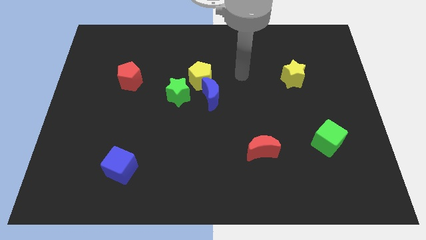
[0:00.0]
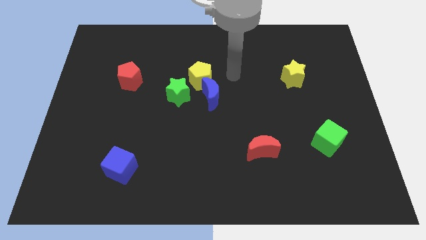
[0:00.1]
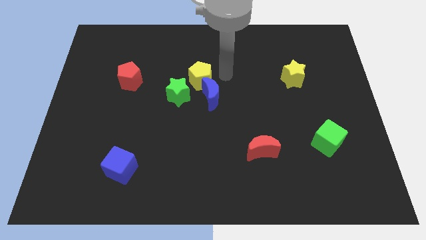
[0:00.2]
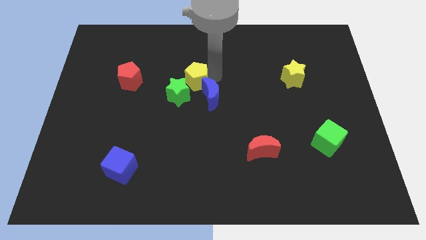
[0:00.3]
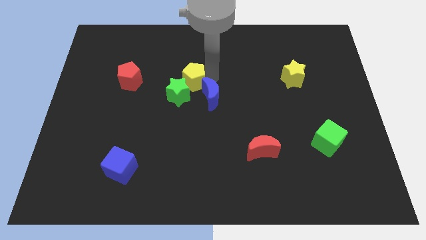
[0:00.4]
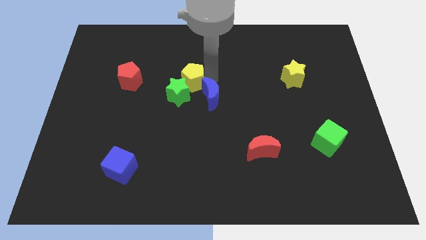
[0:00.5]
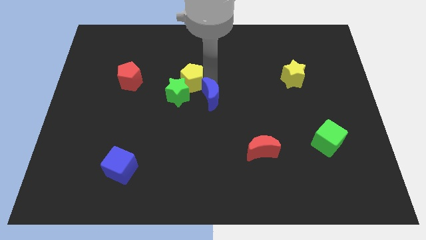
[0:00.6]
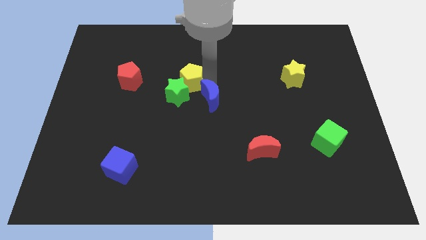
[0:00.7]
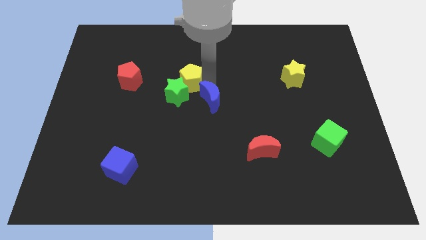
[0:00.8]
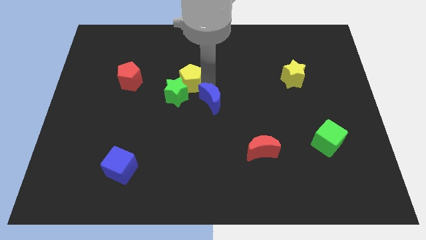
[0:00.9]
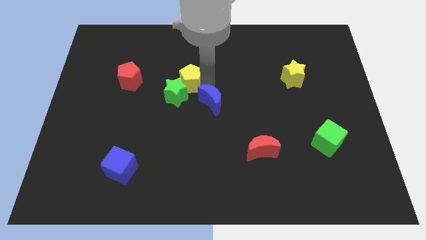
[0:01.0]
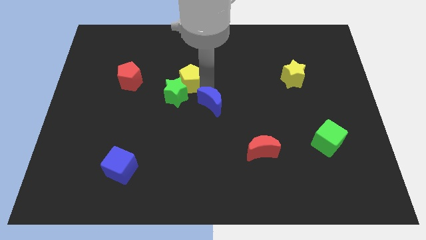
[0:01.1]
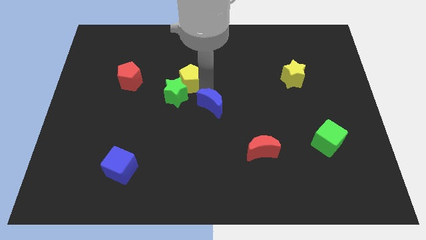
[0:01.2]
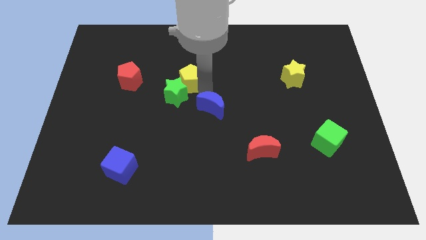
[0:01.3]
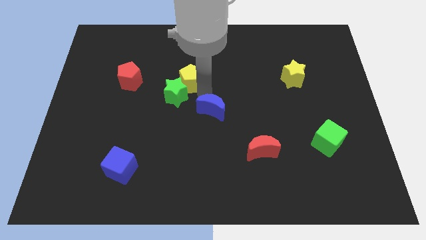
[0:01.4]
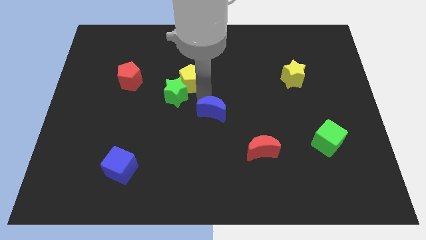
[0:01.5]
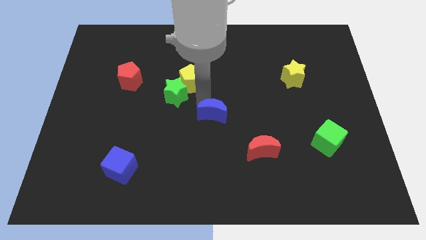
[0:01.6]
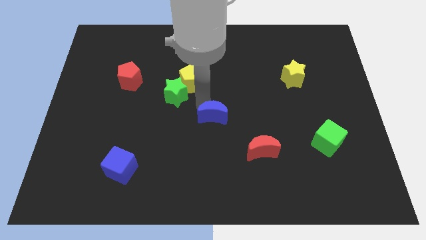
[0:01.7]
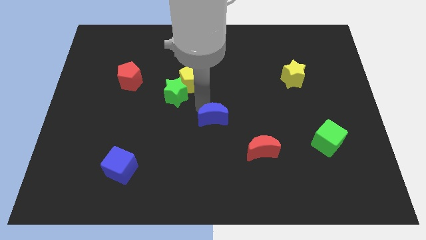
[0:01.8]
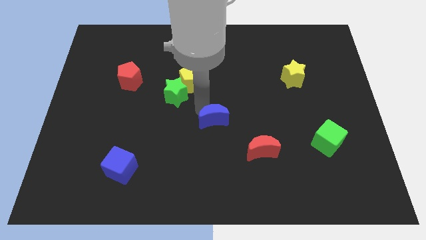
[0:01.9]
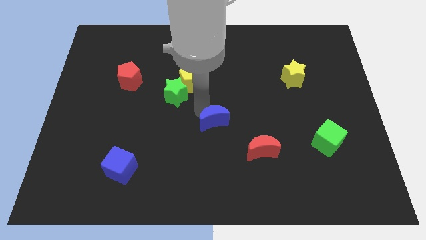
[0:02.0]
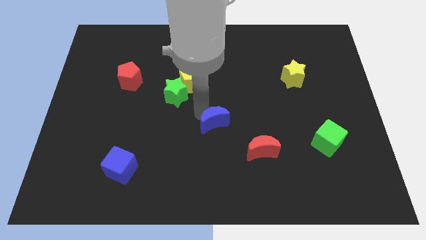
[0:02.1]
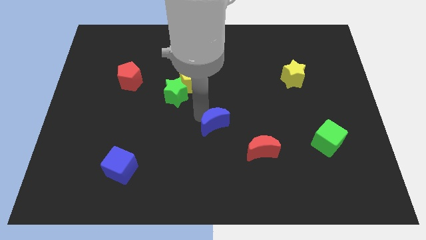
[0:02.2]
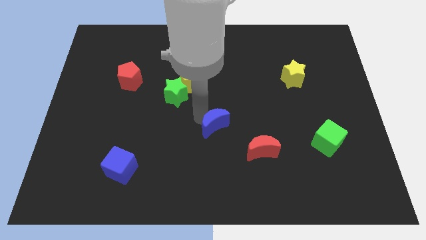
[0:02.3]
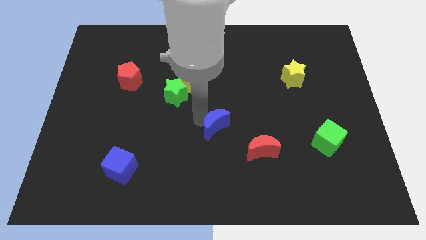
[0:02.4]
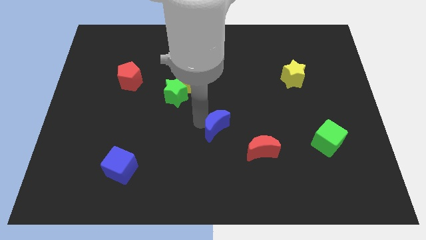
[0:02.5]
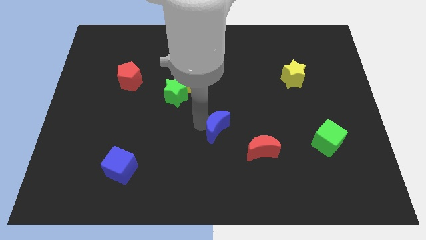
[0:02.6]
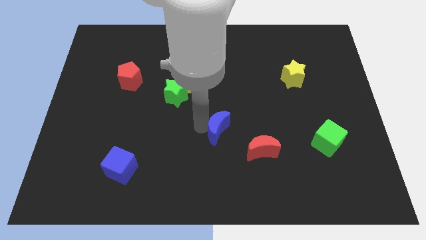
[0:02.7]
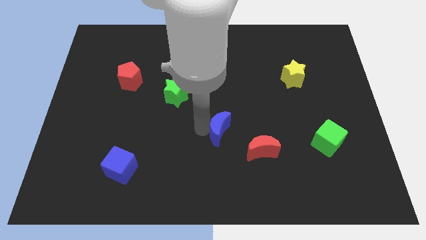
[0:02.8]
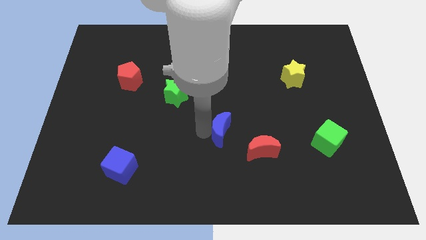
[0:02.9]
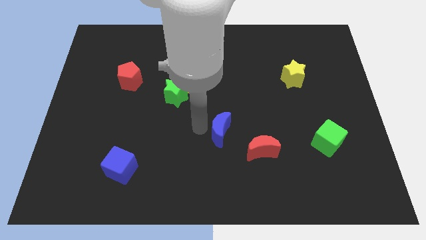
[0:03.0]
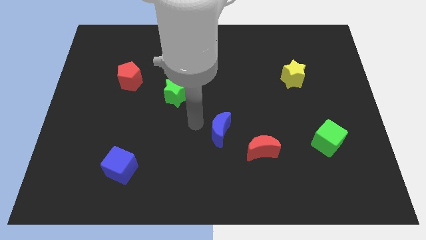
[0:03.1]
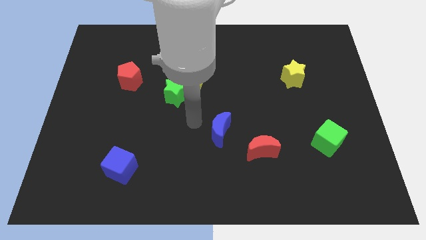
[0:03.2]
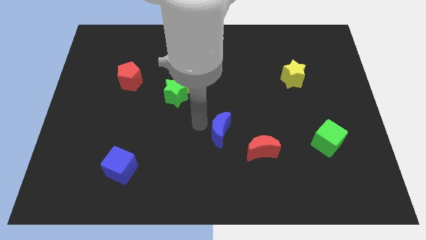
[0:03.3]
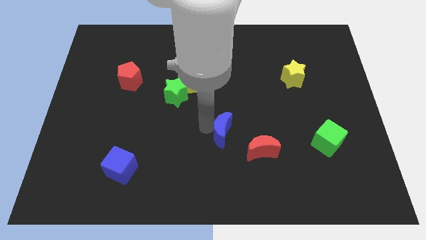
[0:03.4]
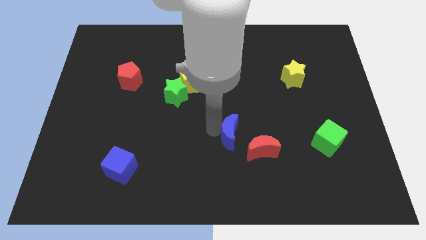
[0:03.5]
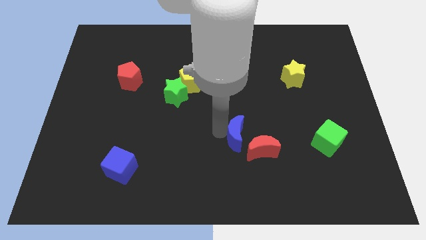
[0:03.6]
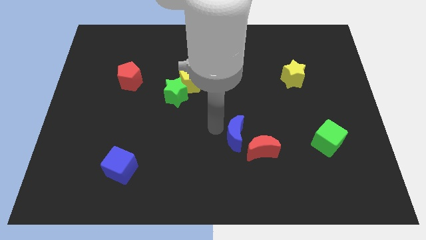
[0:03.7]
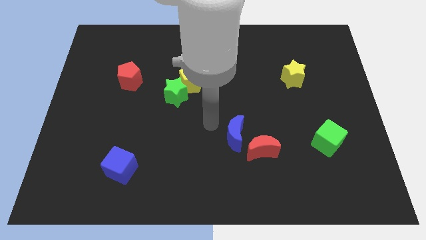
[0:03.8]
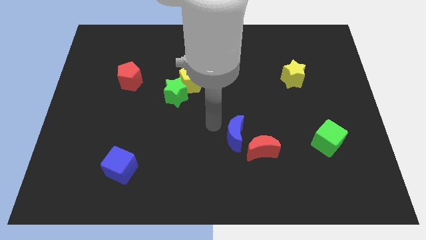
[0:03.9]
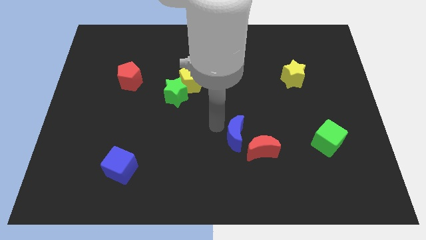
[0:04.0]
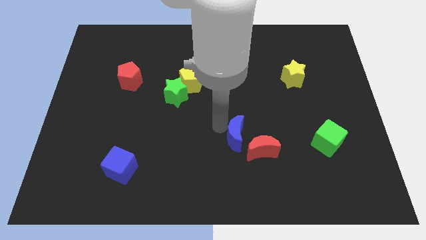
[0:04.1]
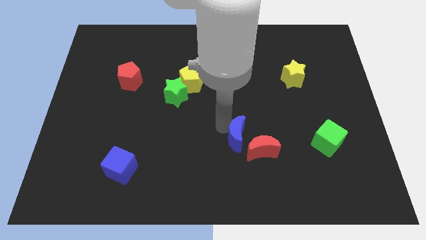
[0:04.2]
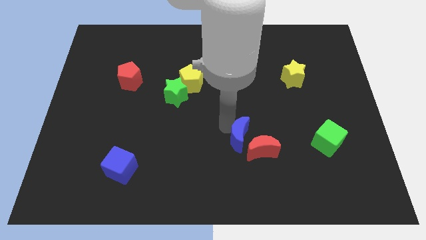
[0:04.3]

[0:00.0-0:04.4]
move the blue moon next to the red moon

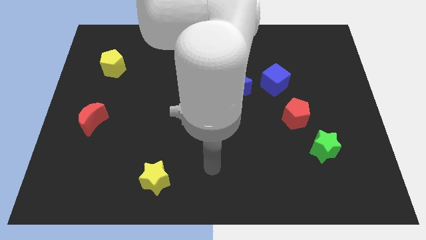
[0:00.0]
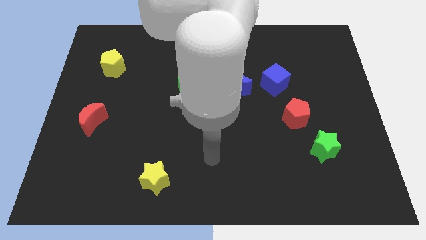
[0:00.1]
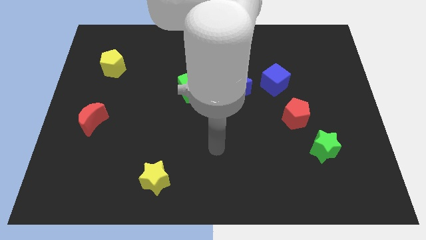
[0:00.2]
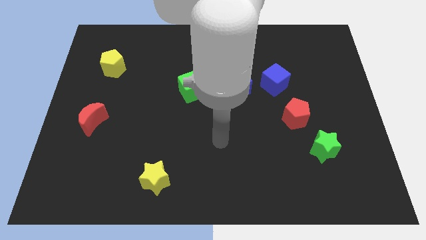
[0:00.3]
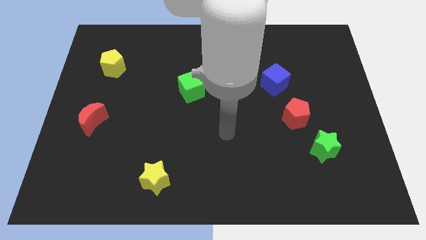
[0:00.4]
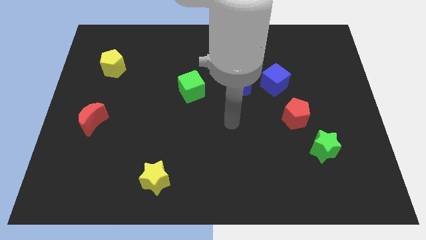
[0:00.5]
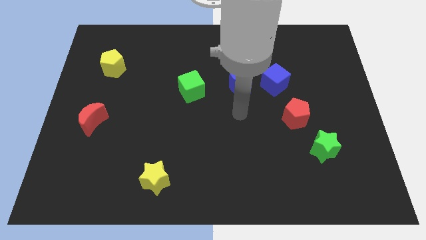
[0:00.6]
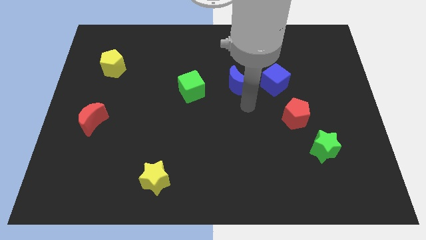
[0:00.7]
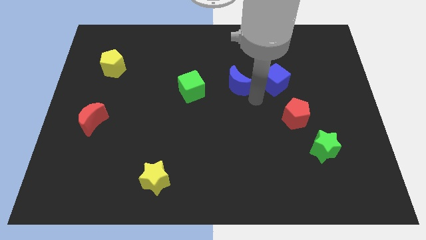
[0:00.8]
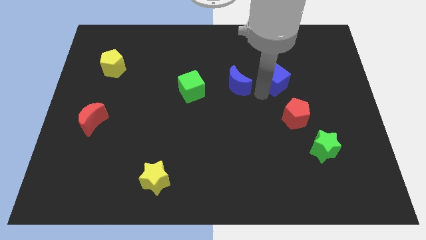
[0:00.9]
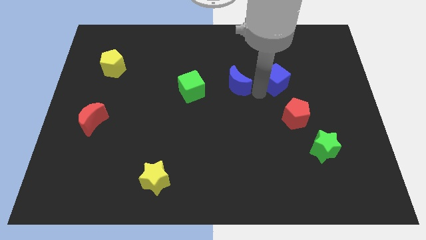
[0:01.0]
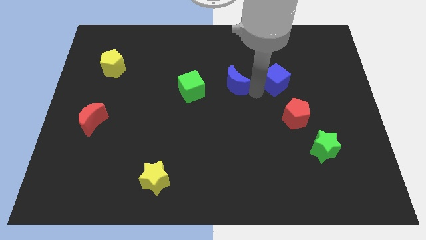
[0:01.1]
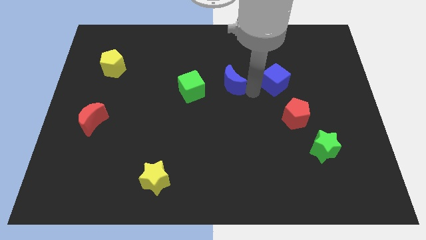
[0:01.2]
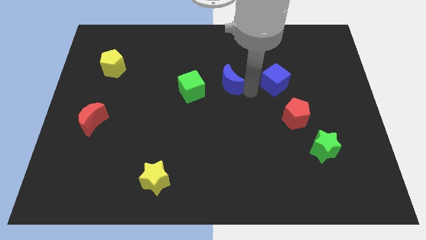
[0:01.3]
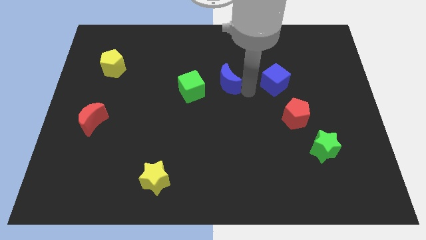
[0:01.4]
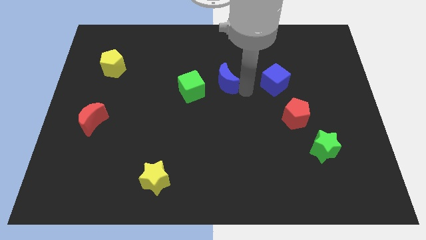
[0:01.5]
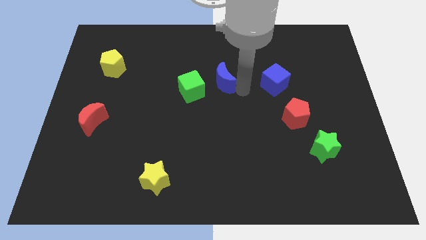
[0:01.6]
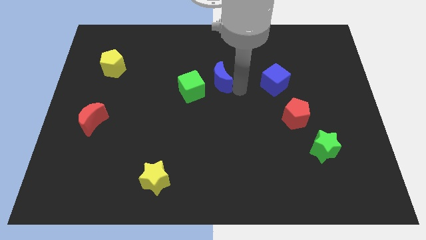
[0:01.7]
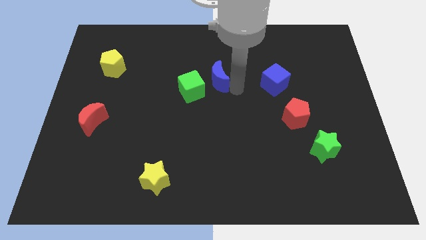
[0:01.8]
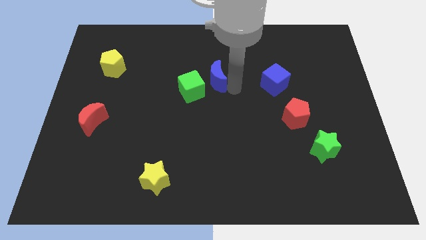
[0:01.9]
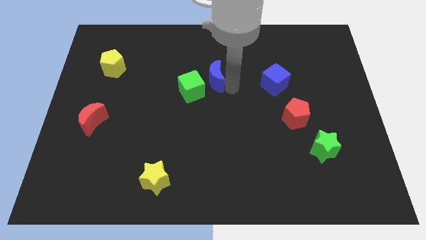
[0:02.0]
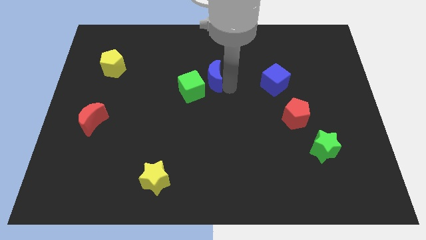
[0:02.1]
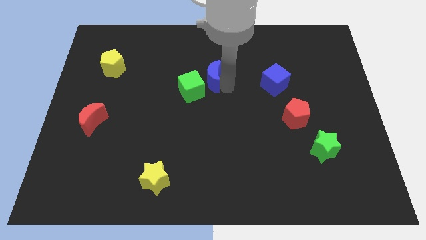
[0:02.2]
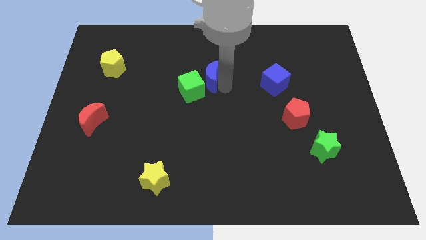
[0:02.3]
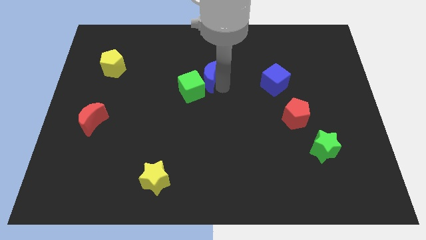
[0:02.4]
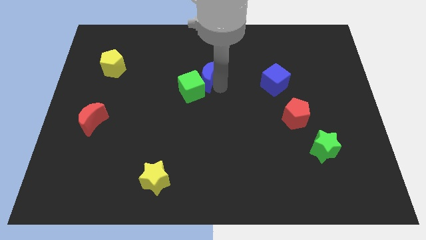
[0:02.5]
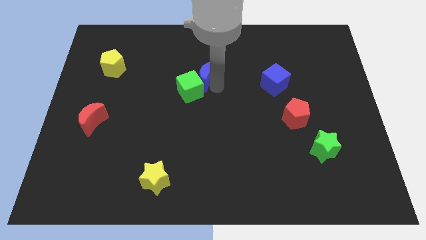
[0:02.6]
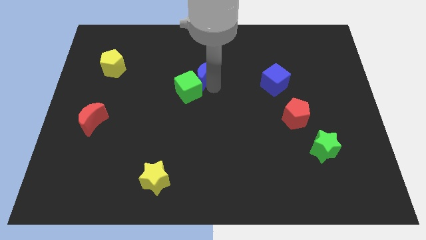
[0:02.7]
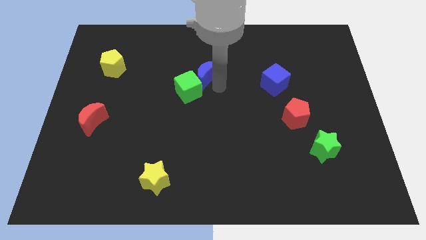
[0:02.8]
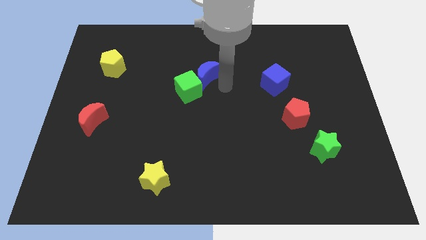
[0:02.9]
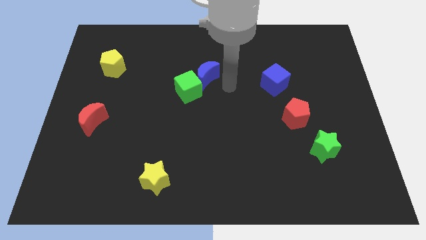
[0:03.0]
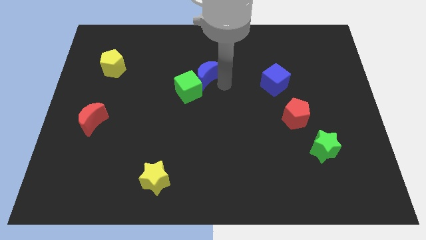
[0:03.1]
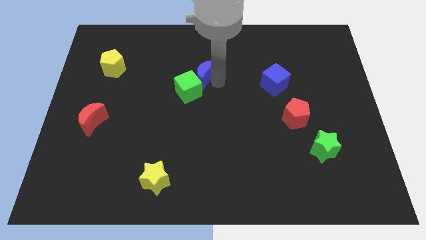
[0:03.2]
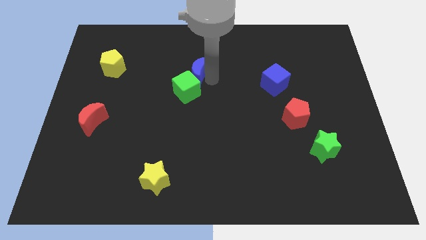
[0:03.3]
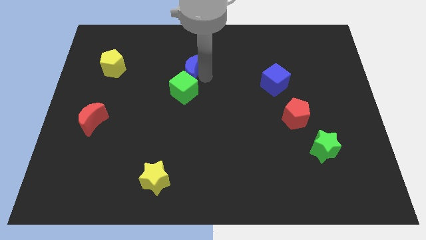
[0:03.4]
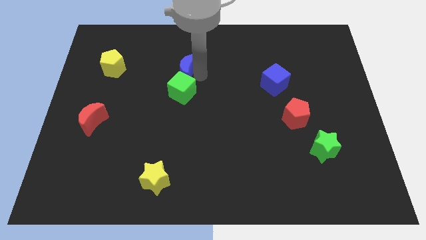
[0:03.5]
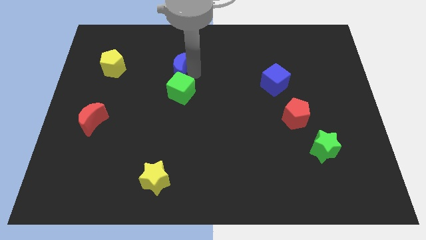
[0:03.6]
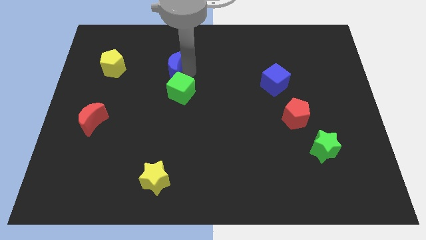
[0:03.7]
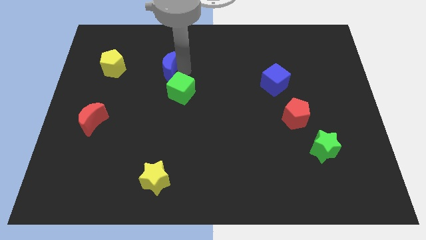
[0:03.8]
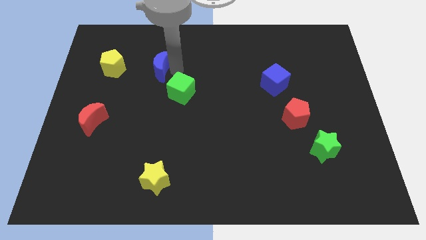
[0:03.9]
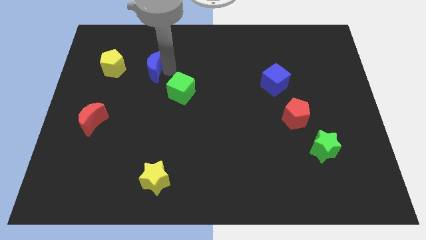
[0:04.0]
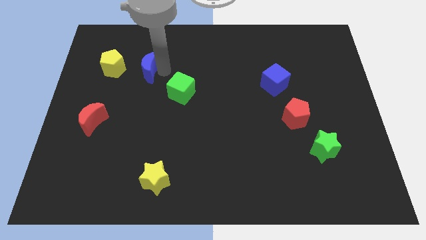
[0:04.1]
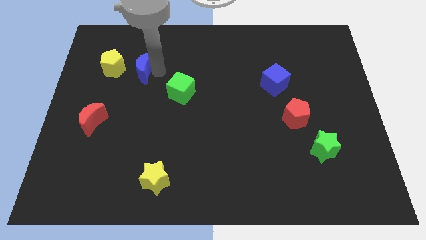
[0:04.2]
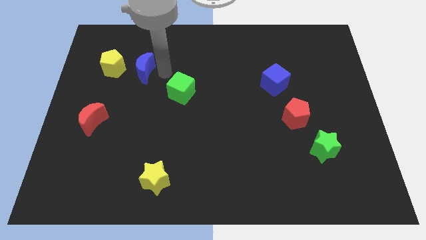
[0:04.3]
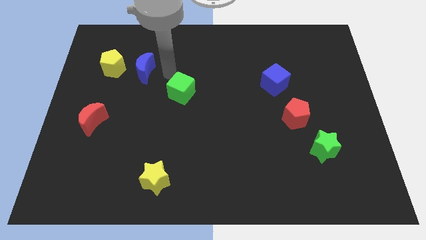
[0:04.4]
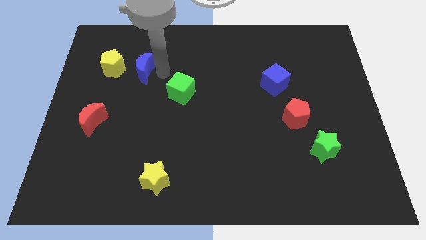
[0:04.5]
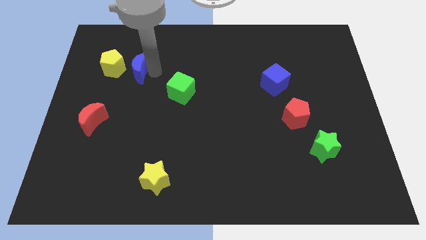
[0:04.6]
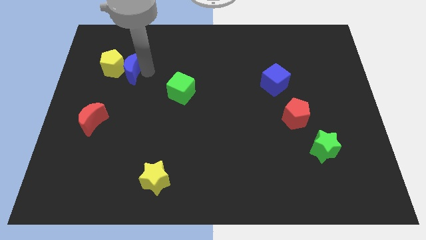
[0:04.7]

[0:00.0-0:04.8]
push the blue moon towards the yellow pentagon
